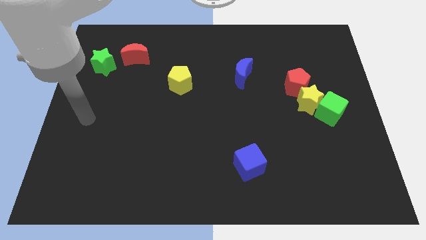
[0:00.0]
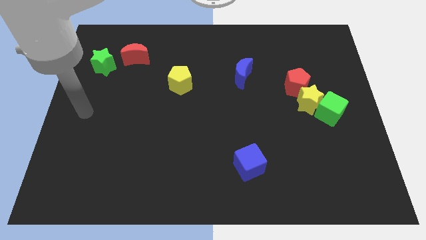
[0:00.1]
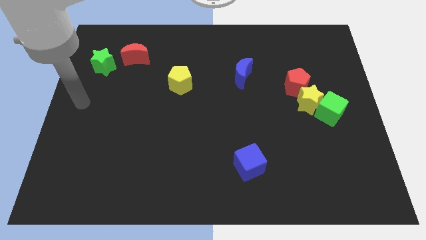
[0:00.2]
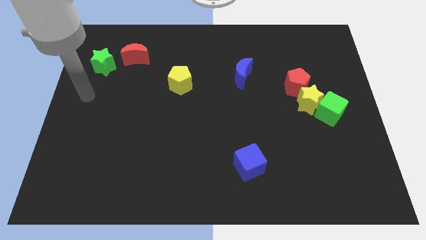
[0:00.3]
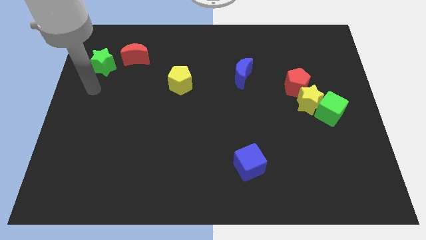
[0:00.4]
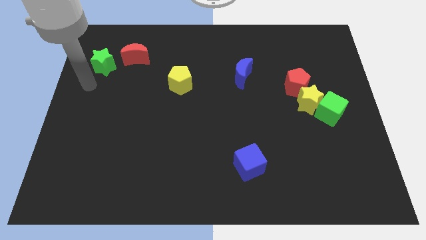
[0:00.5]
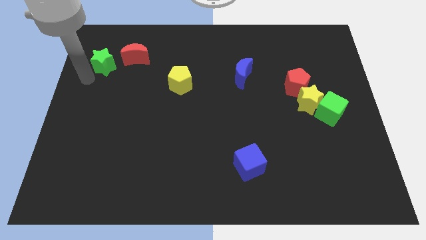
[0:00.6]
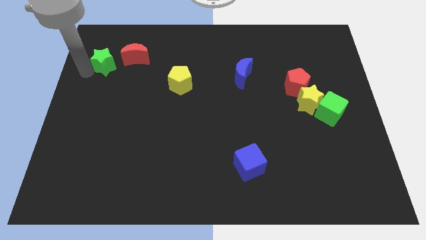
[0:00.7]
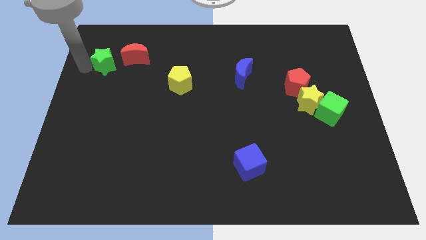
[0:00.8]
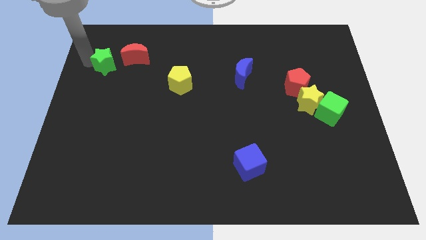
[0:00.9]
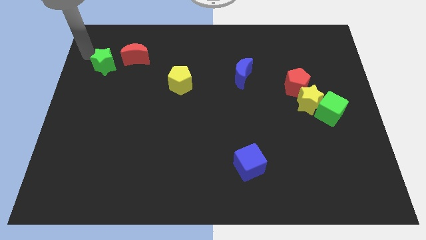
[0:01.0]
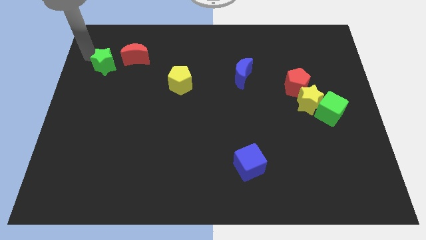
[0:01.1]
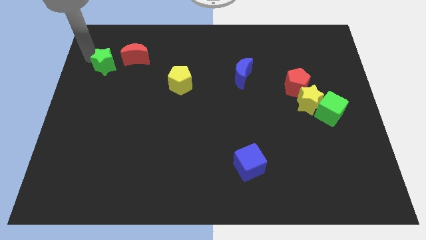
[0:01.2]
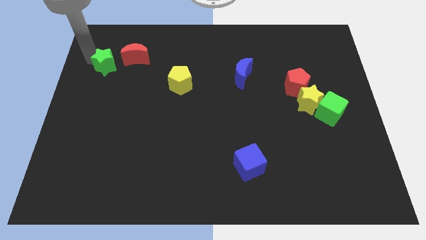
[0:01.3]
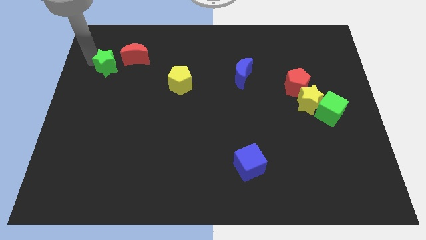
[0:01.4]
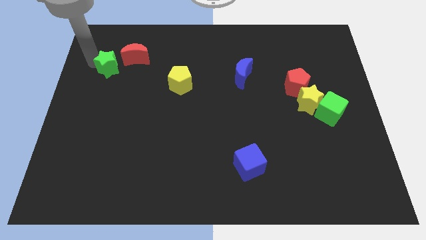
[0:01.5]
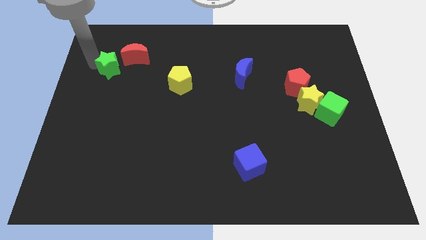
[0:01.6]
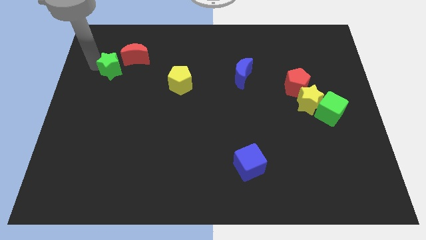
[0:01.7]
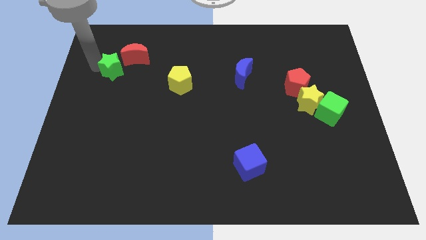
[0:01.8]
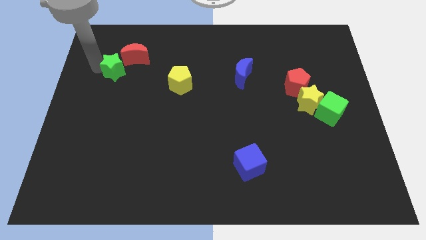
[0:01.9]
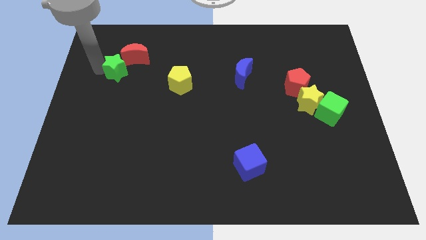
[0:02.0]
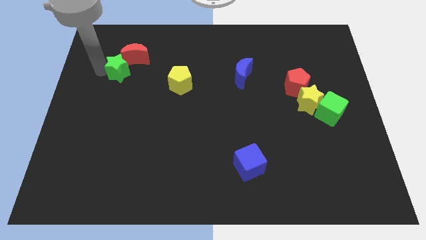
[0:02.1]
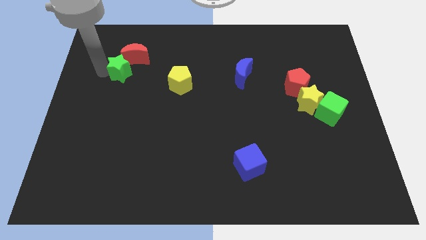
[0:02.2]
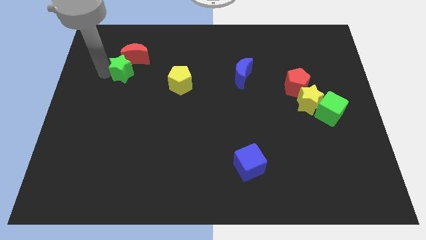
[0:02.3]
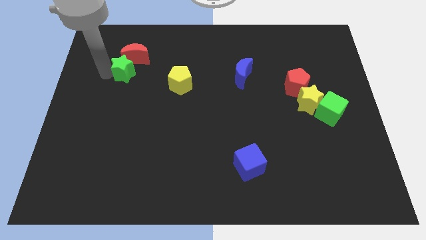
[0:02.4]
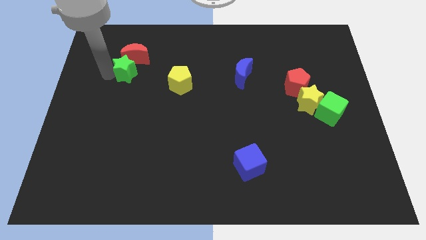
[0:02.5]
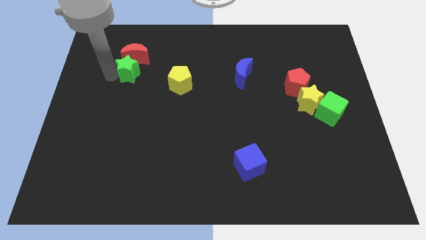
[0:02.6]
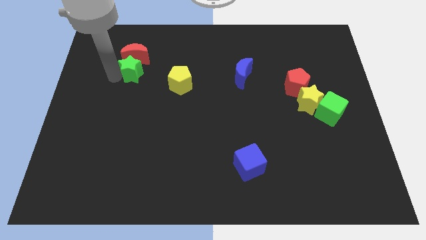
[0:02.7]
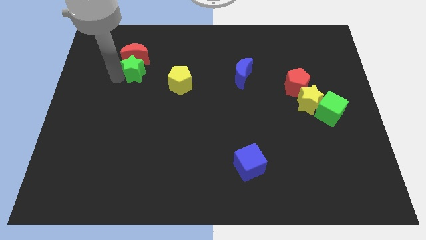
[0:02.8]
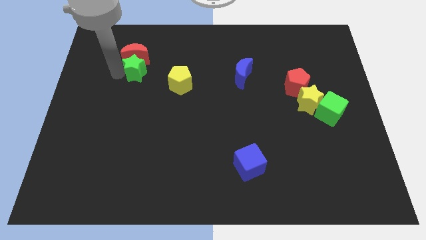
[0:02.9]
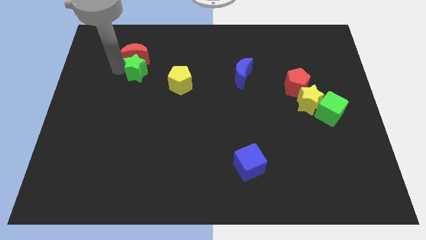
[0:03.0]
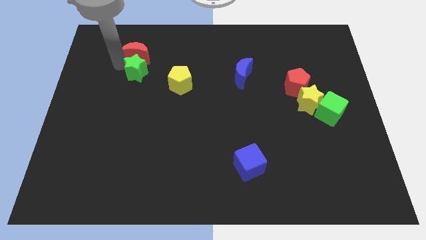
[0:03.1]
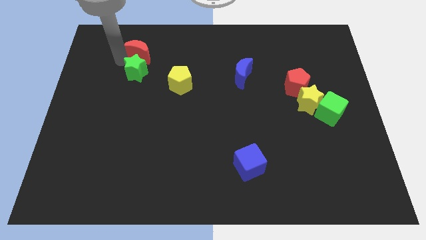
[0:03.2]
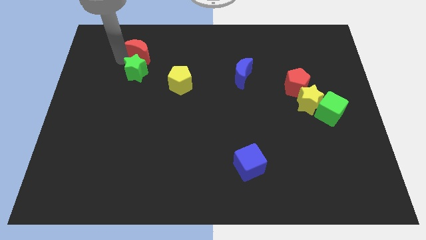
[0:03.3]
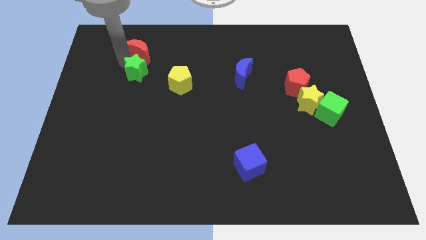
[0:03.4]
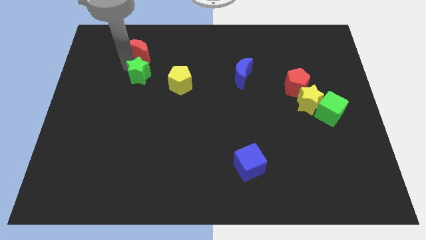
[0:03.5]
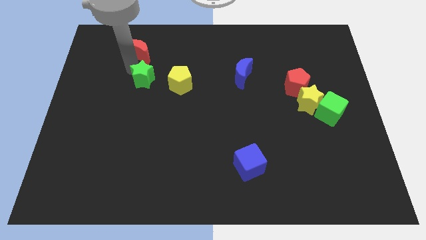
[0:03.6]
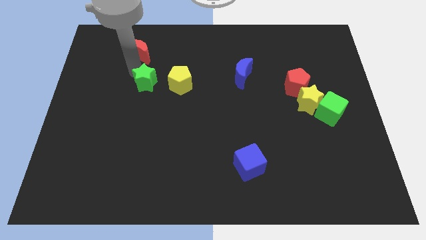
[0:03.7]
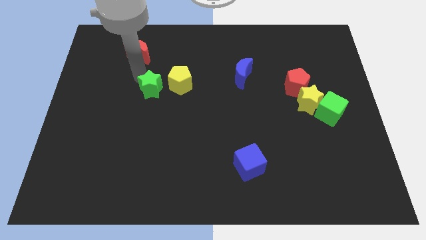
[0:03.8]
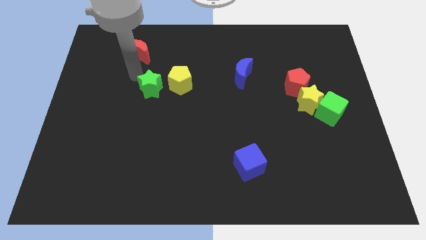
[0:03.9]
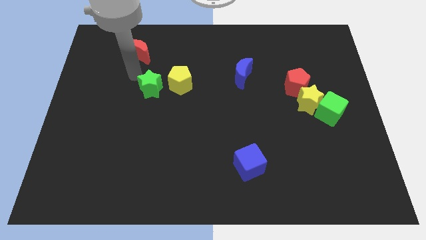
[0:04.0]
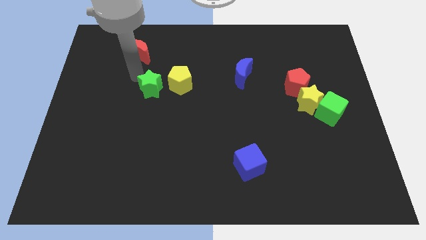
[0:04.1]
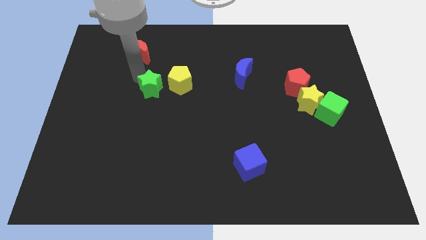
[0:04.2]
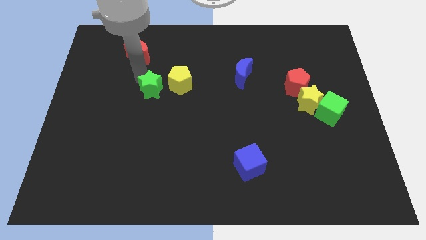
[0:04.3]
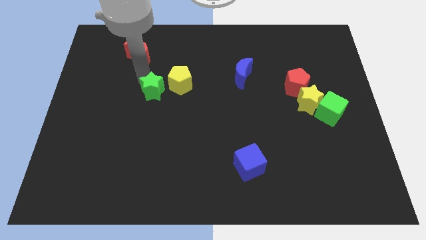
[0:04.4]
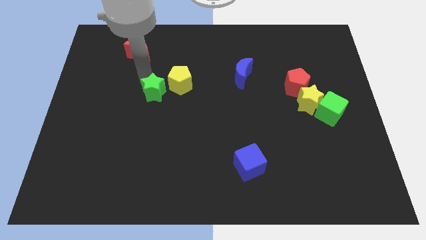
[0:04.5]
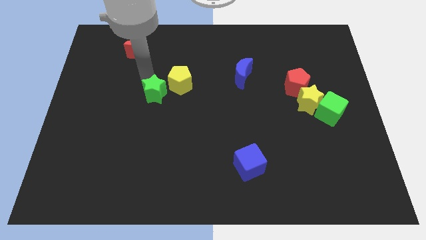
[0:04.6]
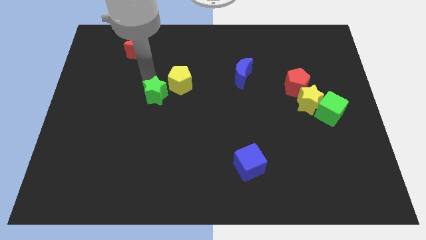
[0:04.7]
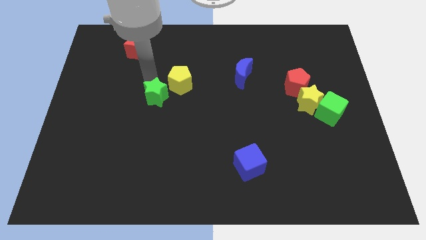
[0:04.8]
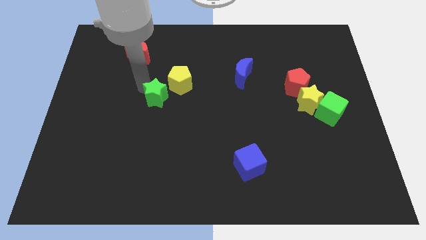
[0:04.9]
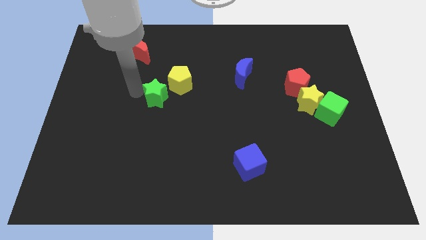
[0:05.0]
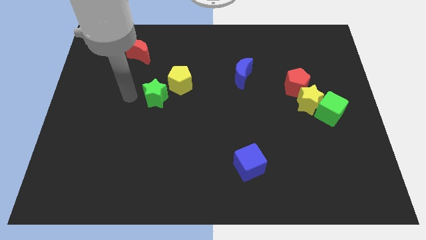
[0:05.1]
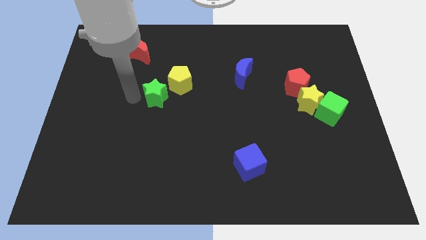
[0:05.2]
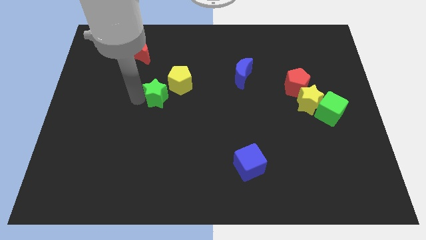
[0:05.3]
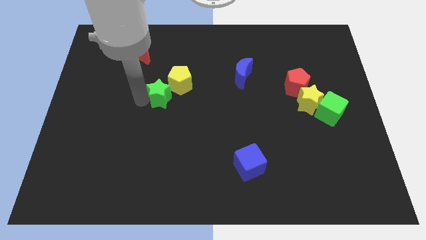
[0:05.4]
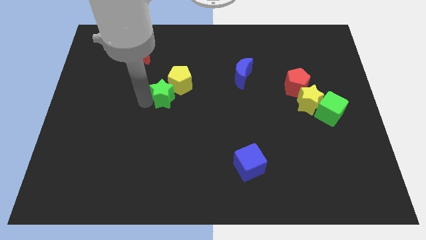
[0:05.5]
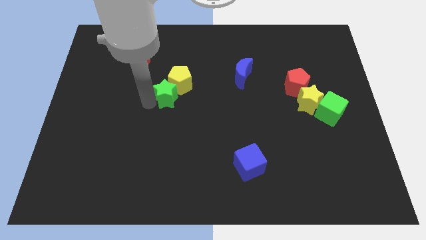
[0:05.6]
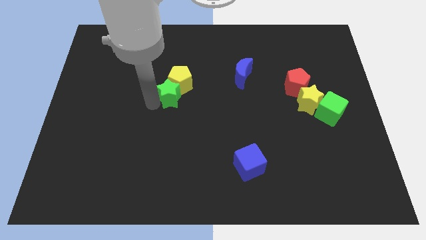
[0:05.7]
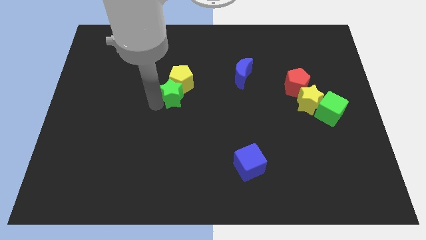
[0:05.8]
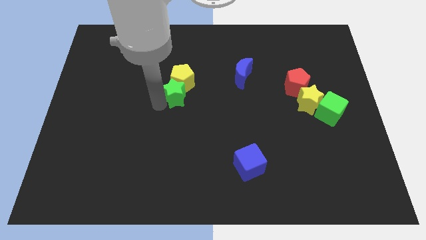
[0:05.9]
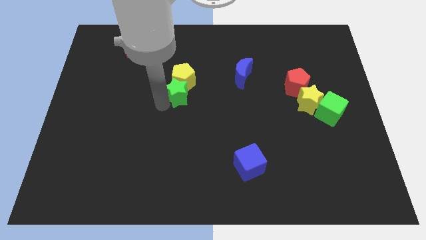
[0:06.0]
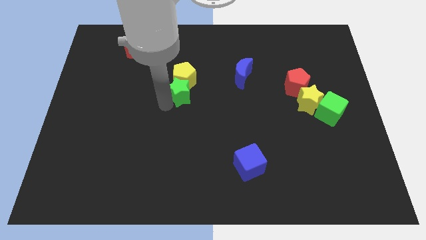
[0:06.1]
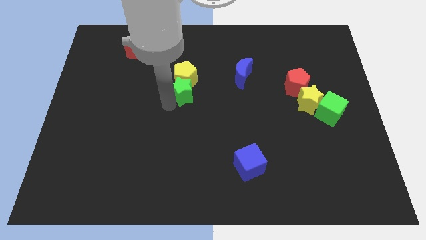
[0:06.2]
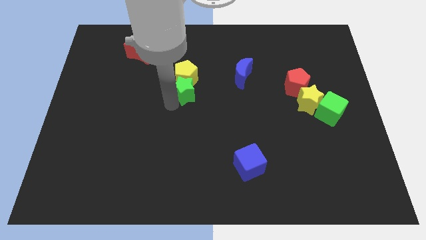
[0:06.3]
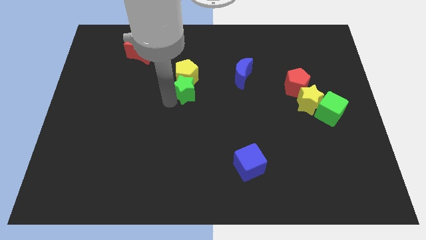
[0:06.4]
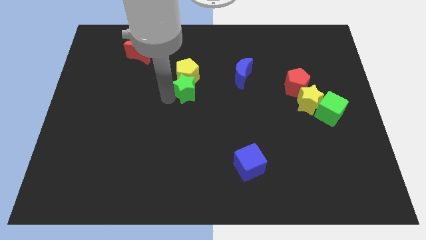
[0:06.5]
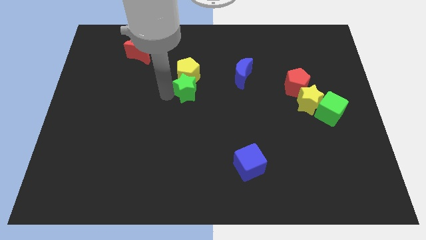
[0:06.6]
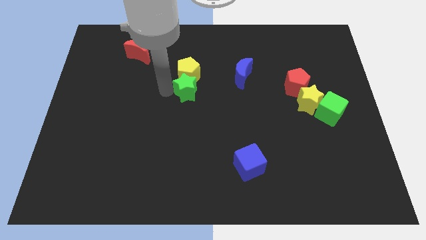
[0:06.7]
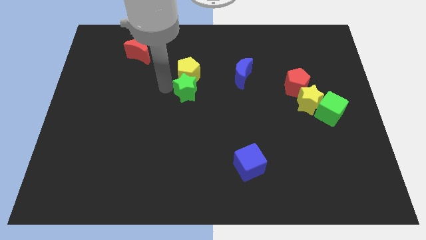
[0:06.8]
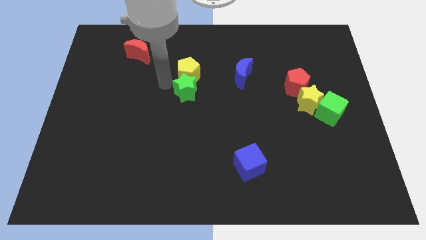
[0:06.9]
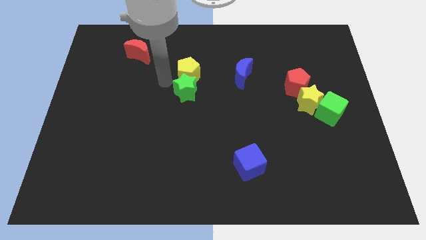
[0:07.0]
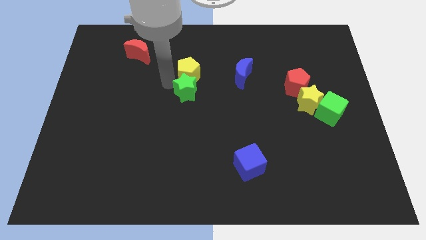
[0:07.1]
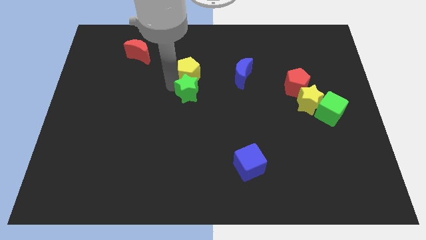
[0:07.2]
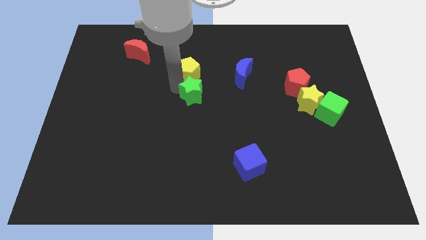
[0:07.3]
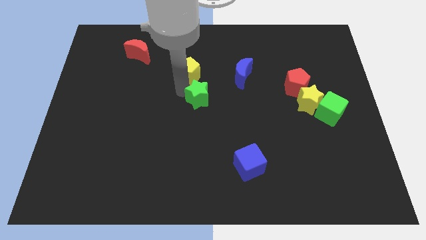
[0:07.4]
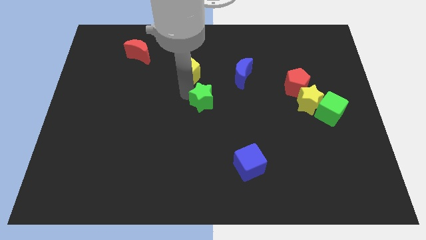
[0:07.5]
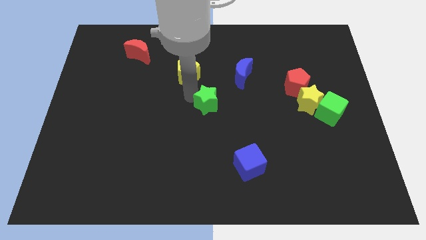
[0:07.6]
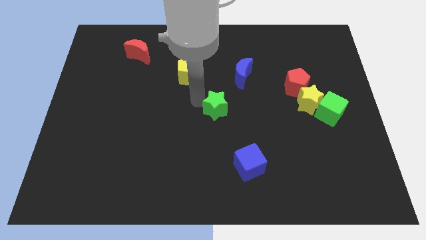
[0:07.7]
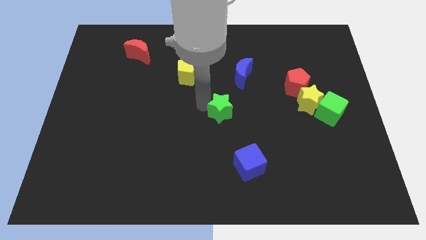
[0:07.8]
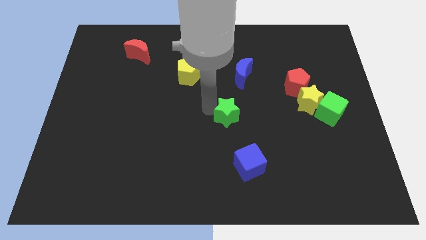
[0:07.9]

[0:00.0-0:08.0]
push the green star to the bottom of the blue moon
